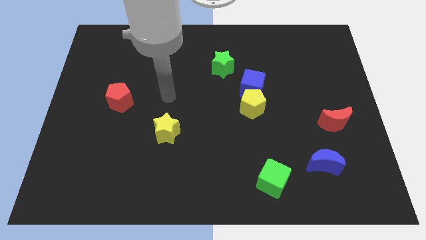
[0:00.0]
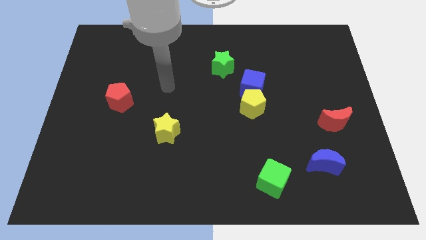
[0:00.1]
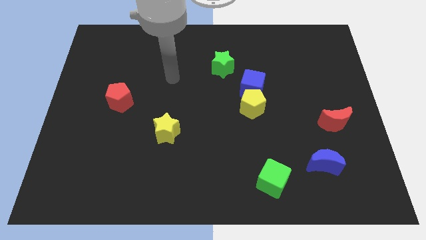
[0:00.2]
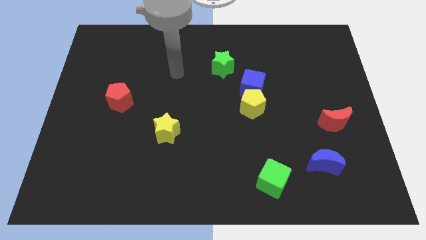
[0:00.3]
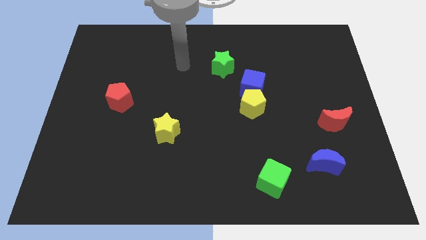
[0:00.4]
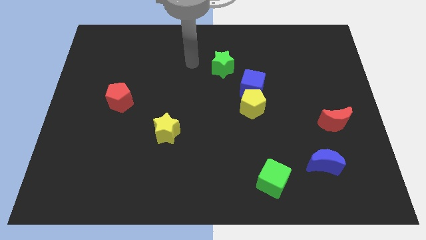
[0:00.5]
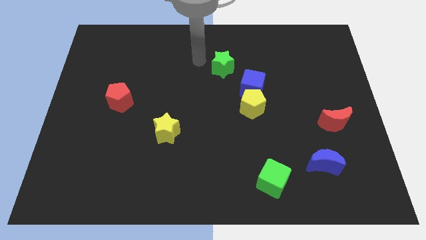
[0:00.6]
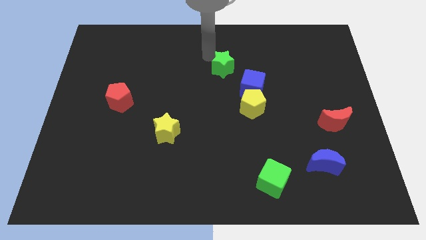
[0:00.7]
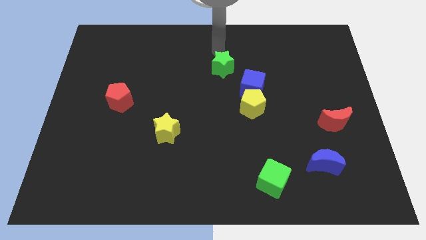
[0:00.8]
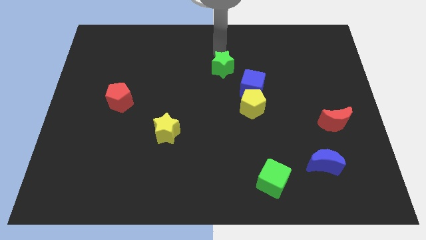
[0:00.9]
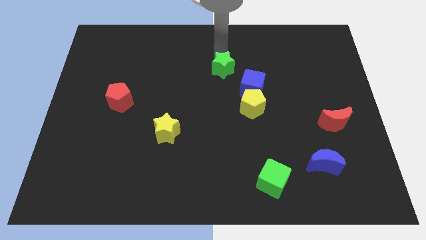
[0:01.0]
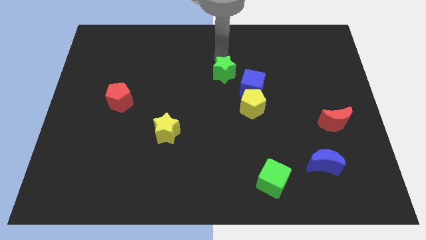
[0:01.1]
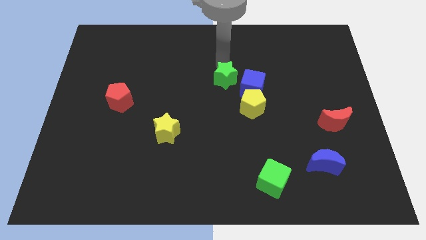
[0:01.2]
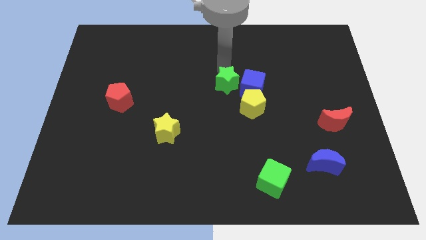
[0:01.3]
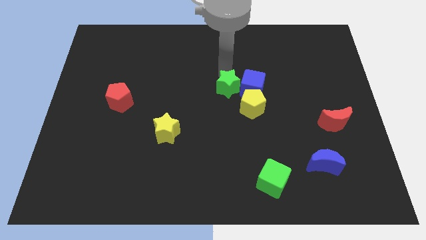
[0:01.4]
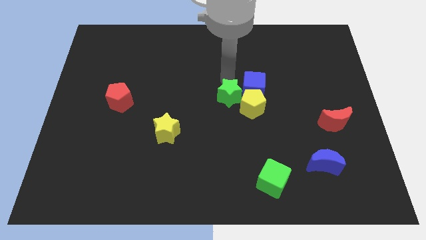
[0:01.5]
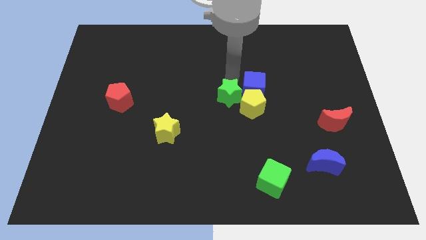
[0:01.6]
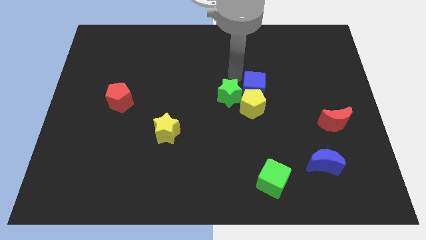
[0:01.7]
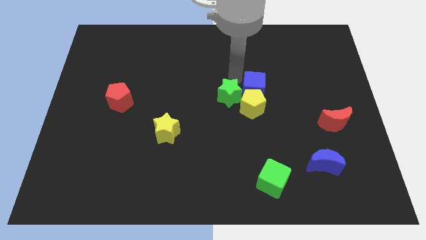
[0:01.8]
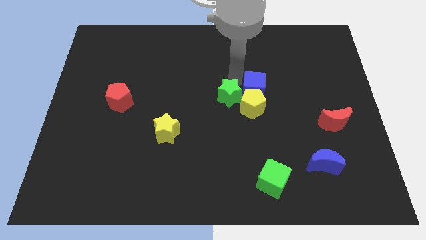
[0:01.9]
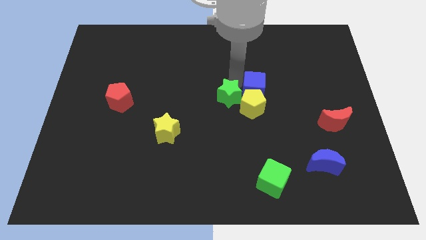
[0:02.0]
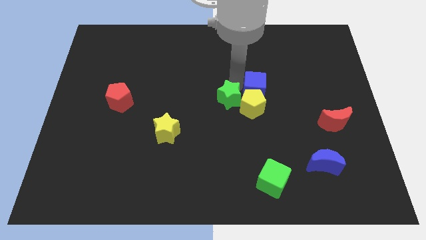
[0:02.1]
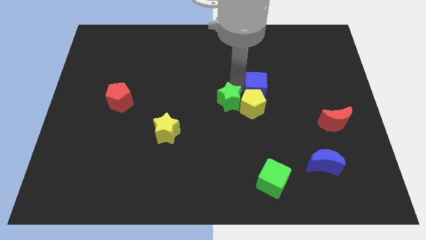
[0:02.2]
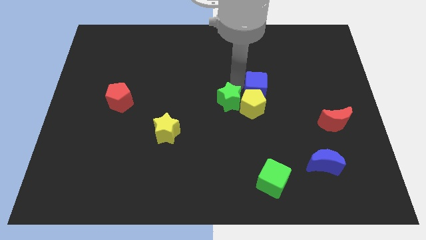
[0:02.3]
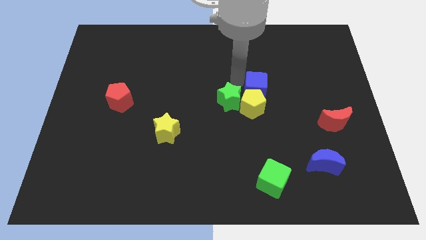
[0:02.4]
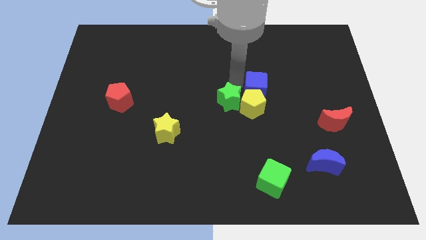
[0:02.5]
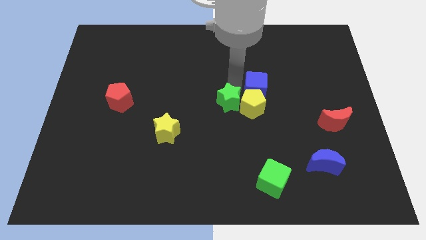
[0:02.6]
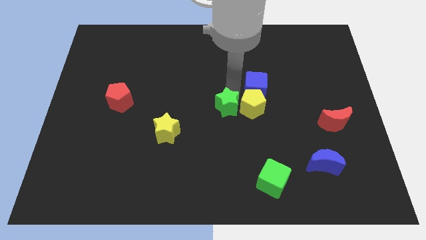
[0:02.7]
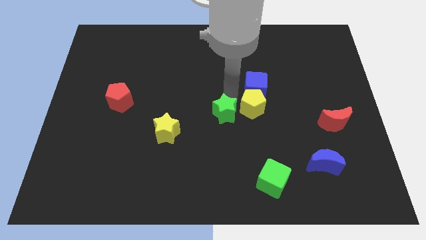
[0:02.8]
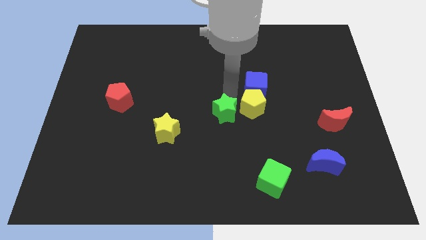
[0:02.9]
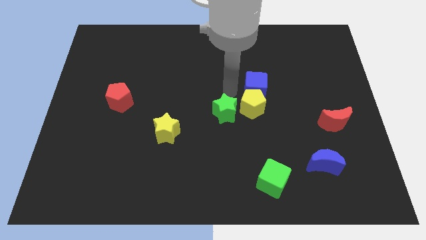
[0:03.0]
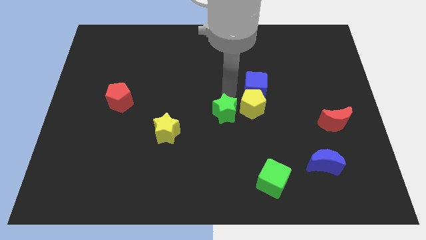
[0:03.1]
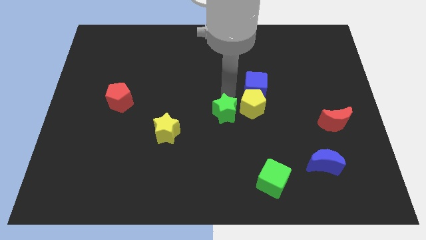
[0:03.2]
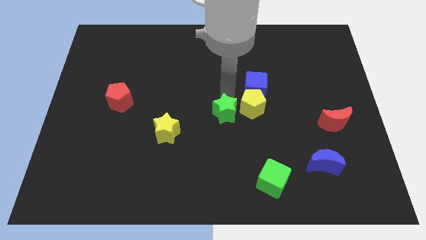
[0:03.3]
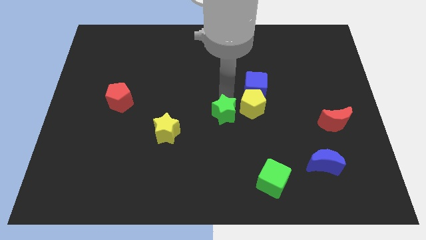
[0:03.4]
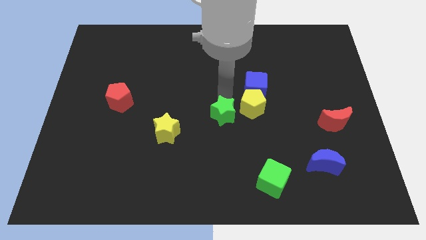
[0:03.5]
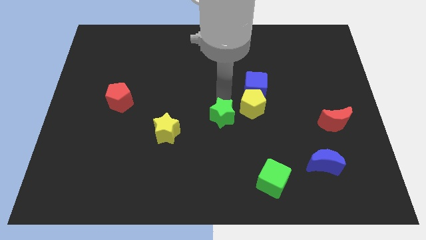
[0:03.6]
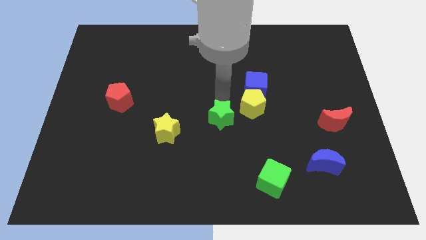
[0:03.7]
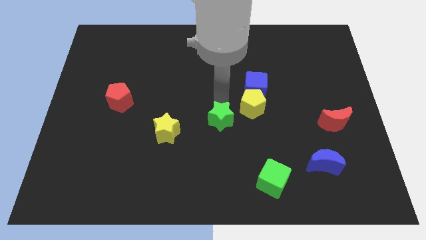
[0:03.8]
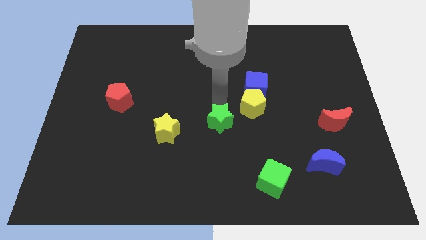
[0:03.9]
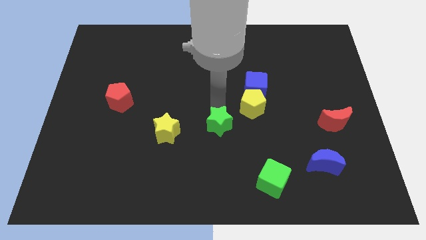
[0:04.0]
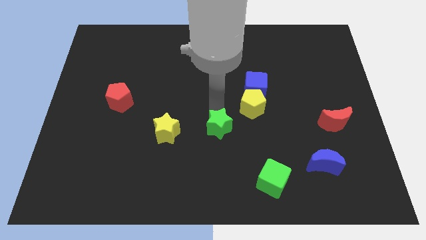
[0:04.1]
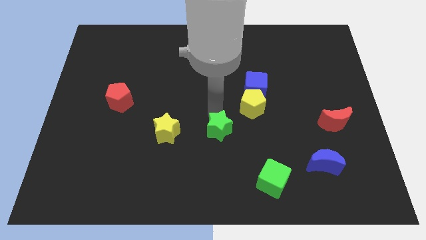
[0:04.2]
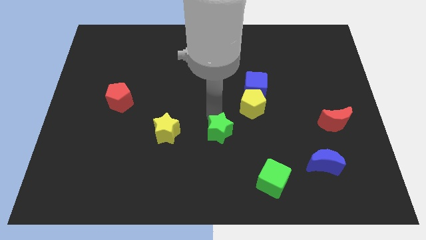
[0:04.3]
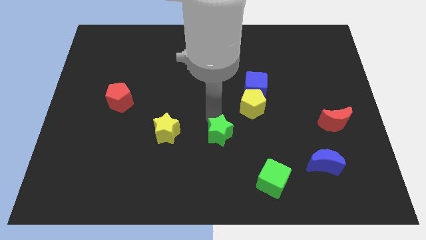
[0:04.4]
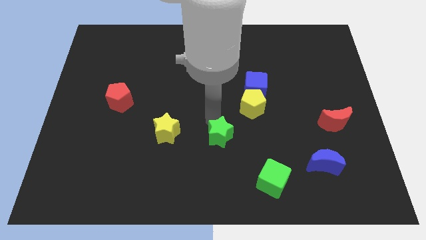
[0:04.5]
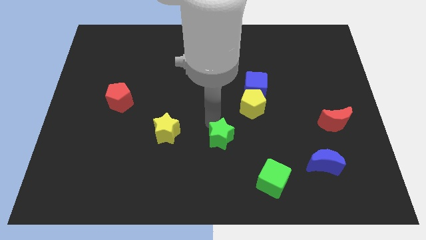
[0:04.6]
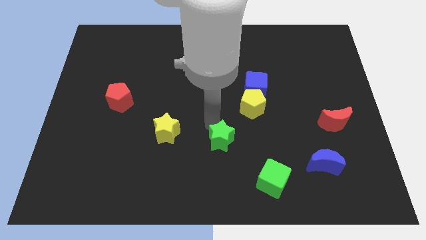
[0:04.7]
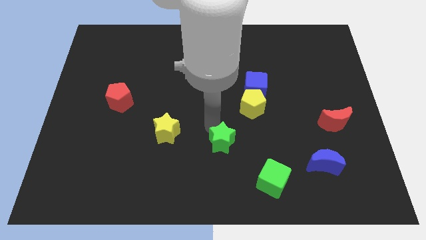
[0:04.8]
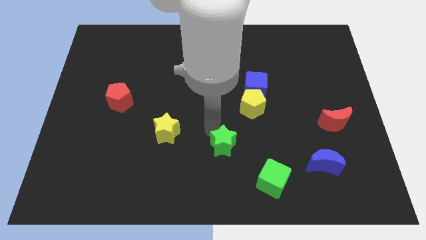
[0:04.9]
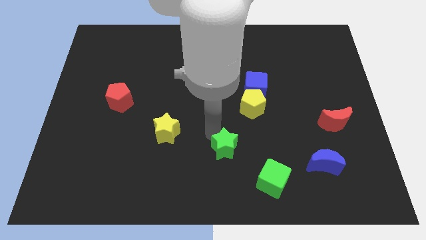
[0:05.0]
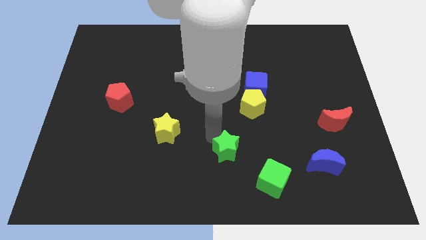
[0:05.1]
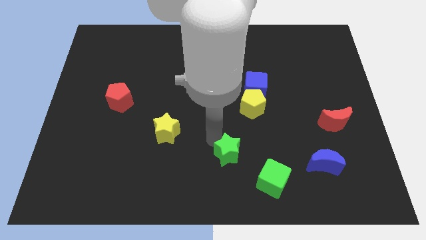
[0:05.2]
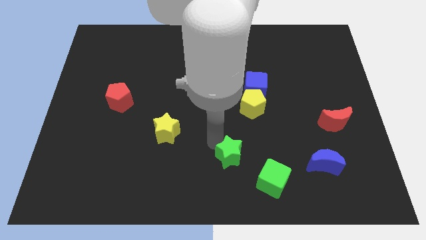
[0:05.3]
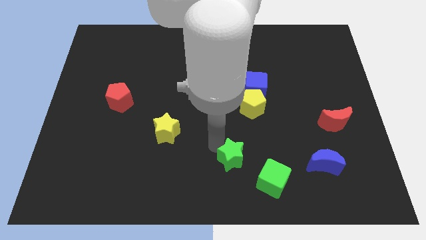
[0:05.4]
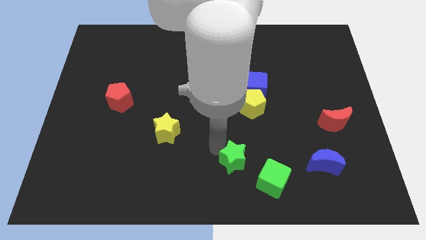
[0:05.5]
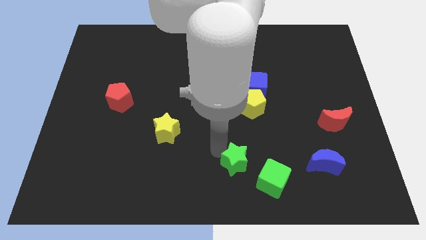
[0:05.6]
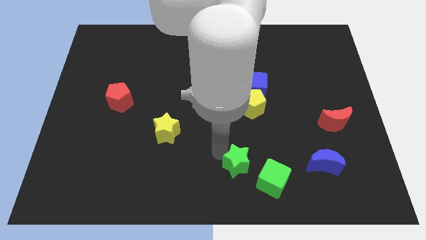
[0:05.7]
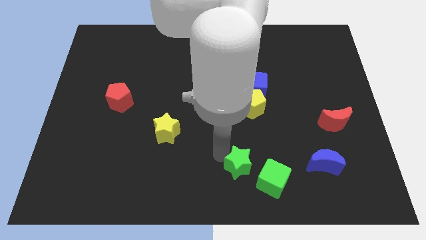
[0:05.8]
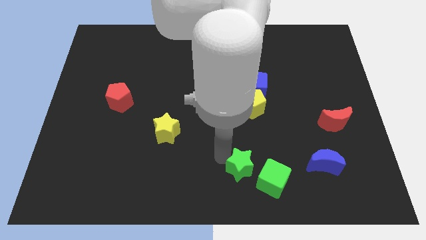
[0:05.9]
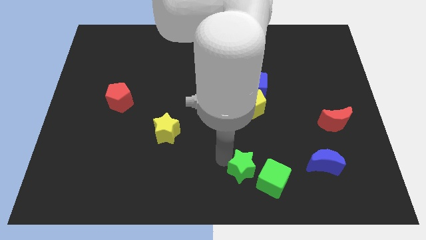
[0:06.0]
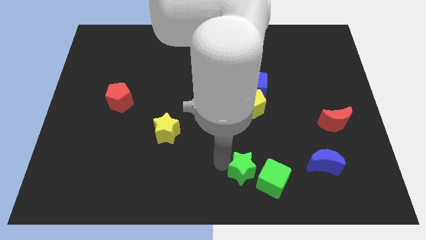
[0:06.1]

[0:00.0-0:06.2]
move the green star close to the green cube

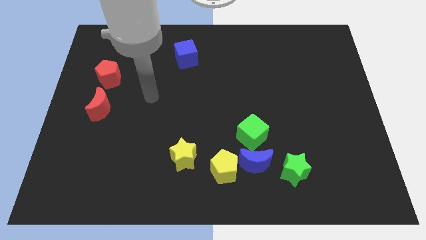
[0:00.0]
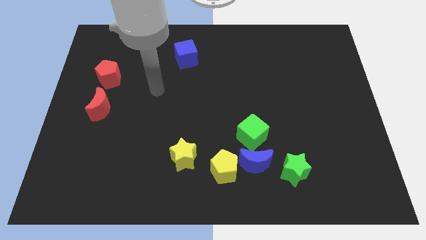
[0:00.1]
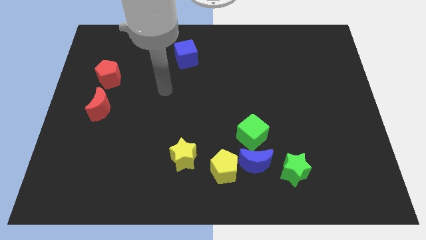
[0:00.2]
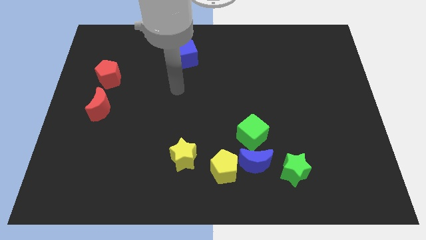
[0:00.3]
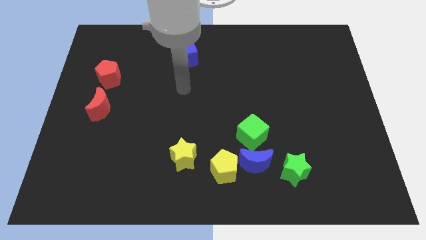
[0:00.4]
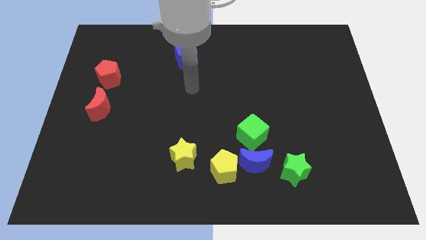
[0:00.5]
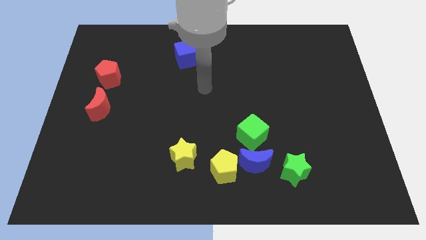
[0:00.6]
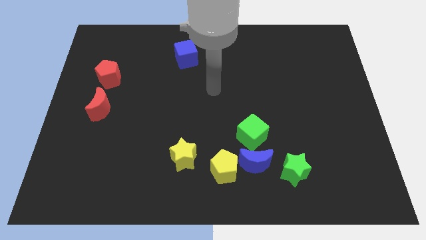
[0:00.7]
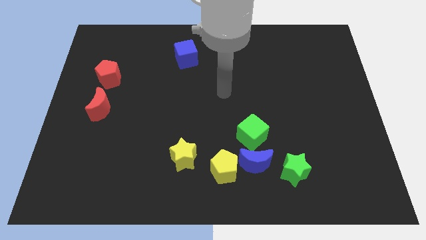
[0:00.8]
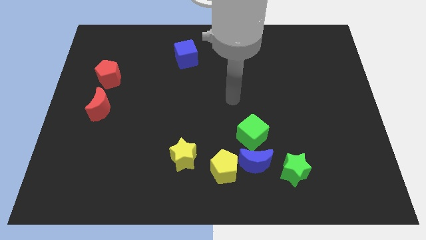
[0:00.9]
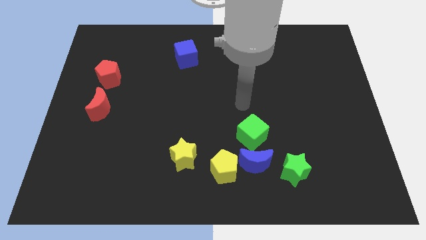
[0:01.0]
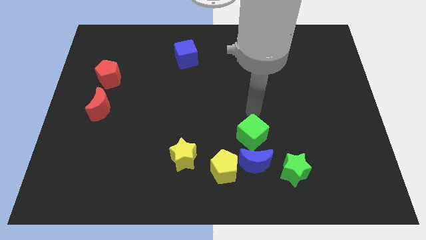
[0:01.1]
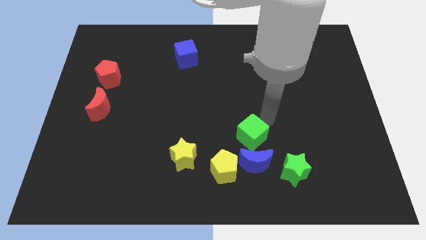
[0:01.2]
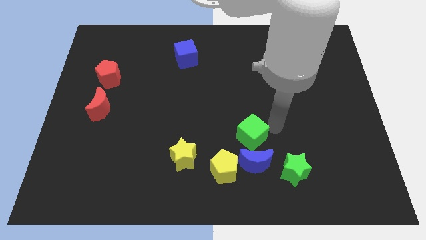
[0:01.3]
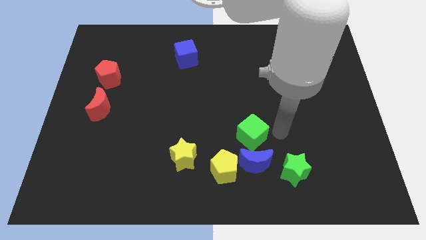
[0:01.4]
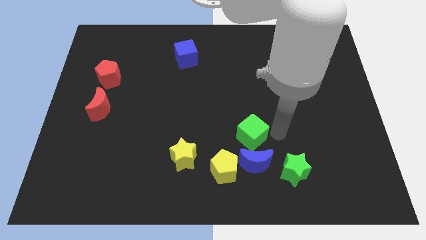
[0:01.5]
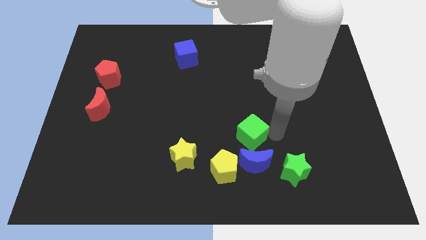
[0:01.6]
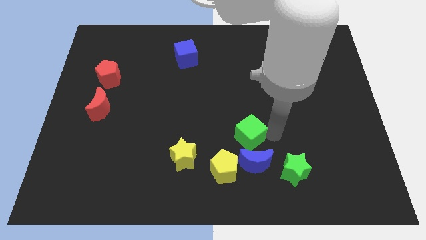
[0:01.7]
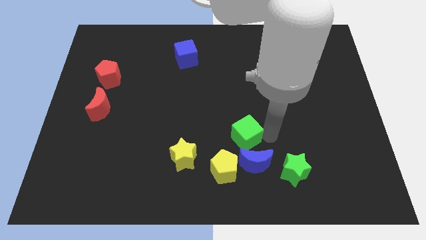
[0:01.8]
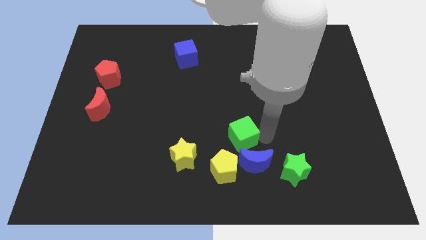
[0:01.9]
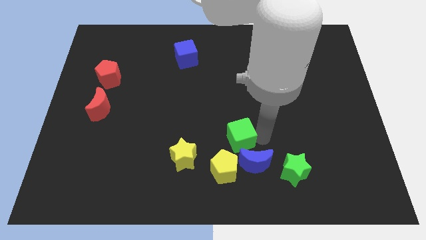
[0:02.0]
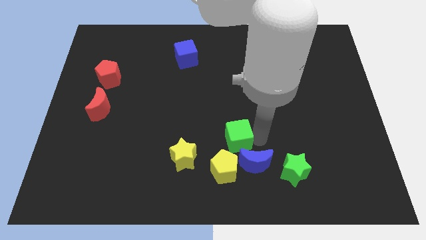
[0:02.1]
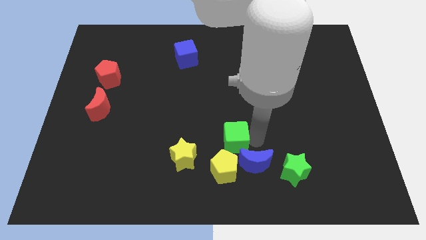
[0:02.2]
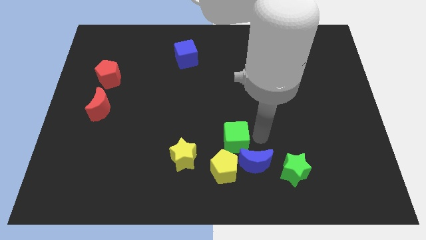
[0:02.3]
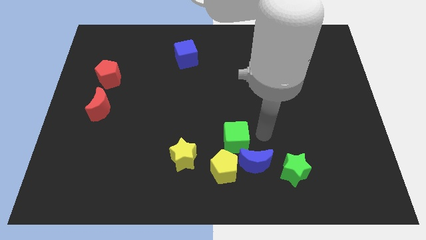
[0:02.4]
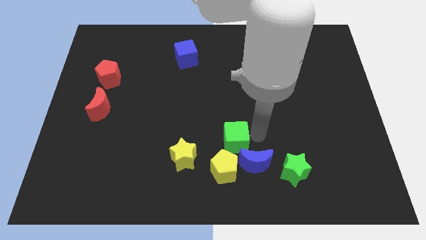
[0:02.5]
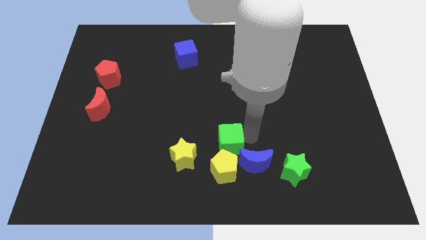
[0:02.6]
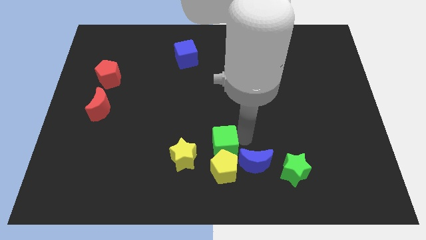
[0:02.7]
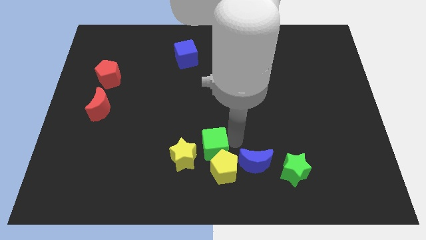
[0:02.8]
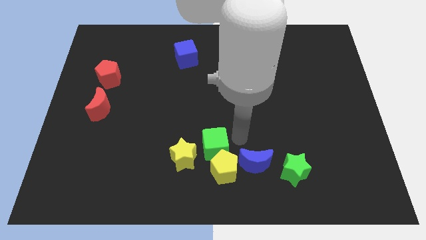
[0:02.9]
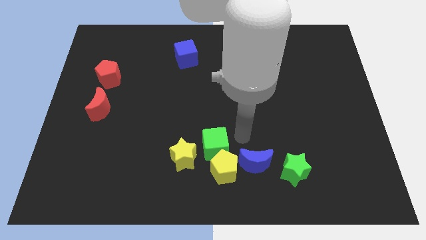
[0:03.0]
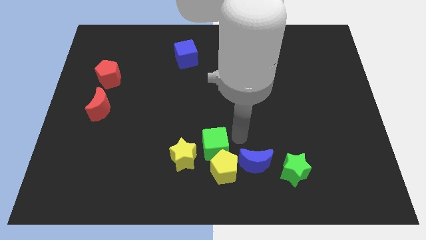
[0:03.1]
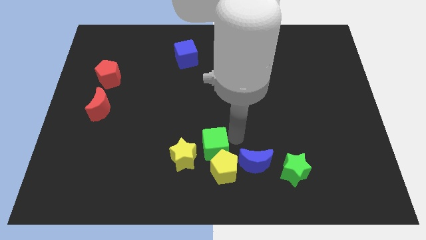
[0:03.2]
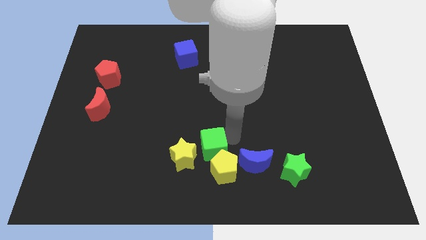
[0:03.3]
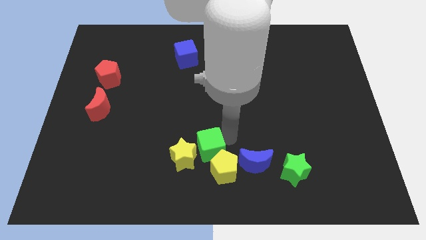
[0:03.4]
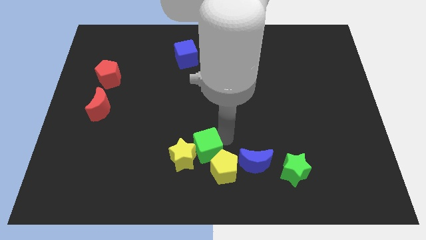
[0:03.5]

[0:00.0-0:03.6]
push the green cube next to the yellow star
